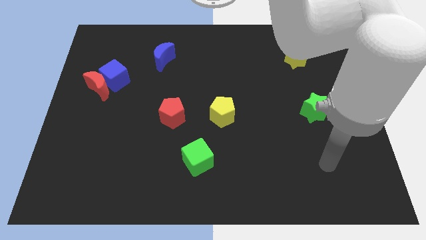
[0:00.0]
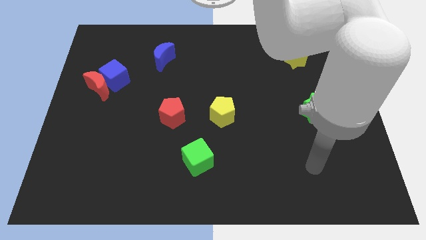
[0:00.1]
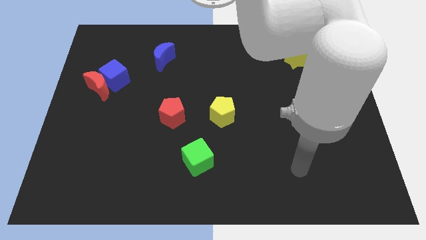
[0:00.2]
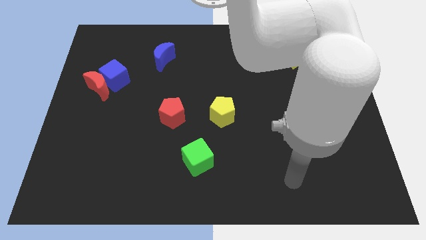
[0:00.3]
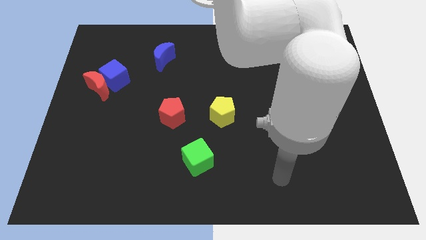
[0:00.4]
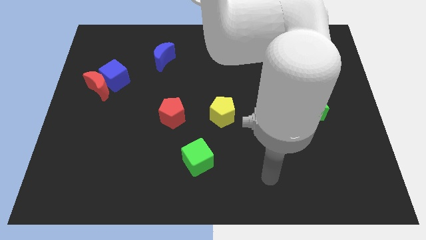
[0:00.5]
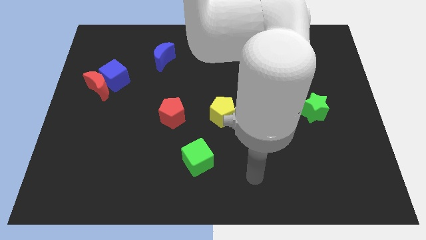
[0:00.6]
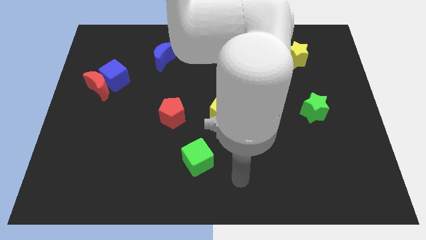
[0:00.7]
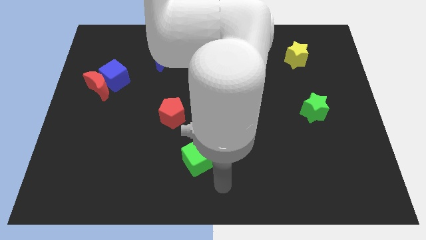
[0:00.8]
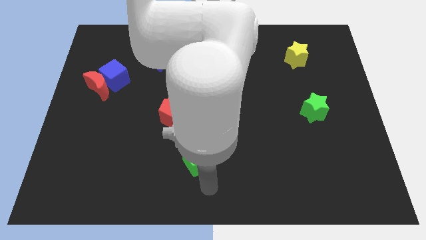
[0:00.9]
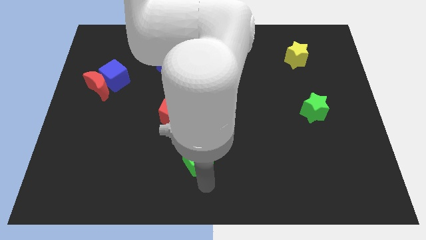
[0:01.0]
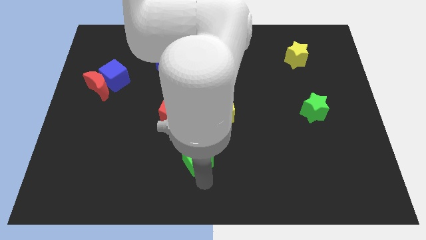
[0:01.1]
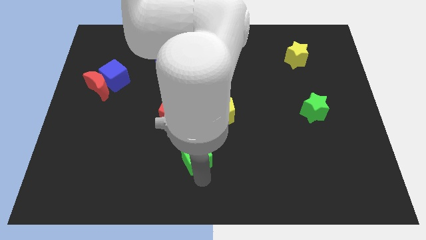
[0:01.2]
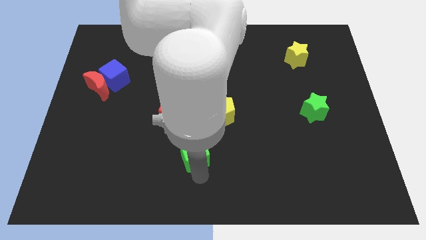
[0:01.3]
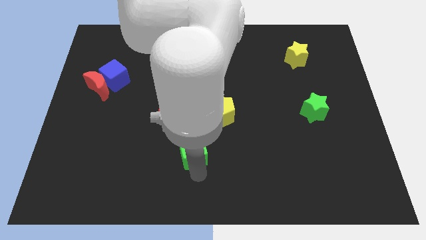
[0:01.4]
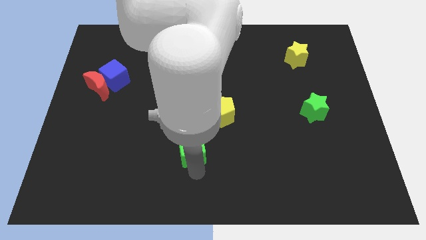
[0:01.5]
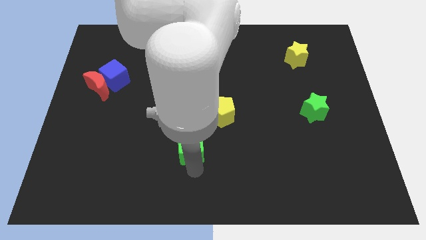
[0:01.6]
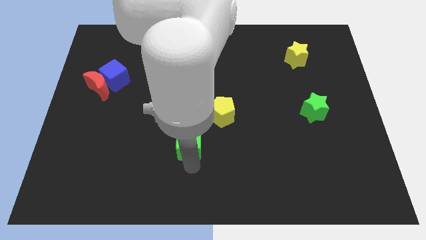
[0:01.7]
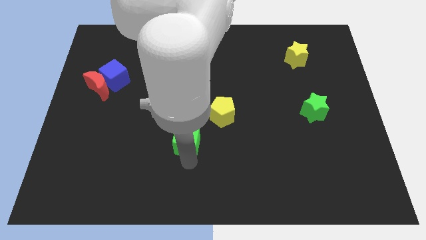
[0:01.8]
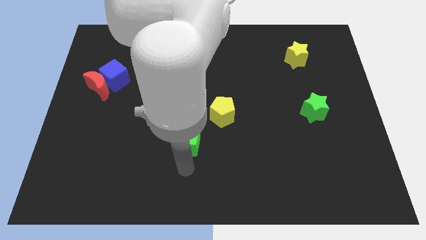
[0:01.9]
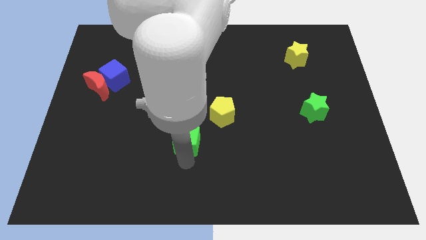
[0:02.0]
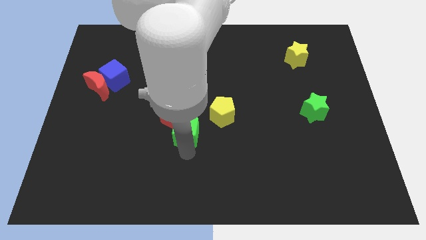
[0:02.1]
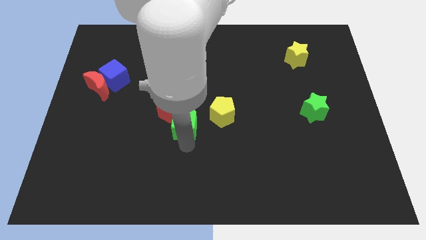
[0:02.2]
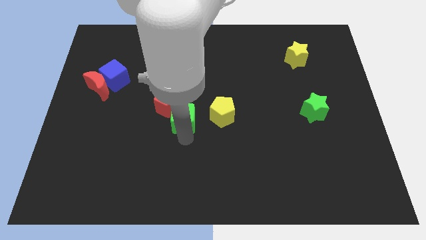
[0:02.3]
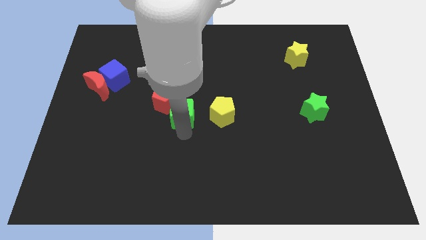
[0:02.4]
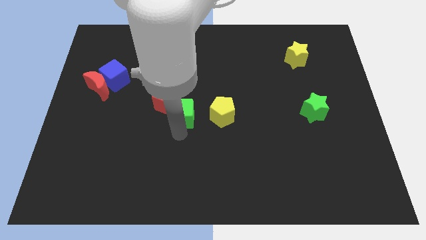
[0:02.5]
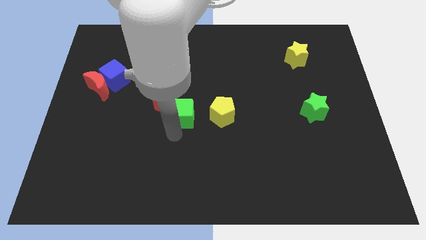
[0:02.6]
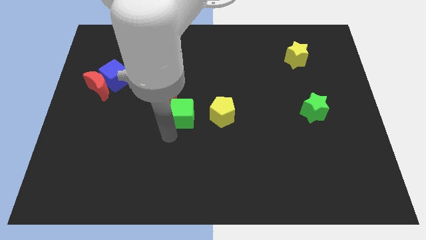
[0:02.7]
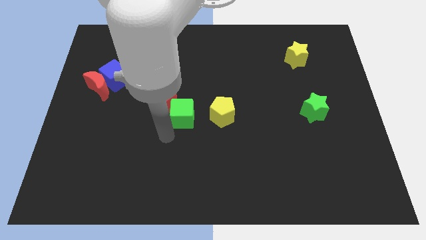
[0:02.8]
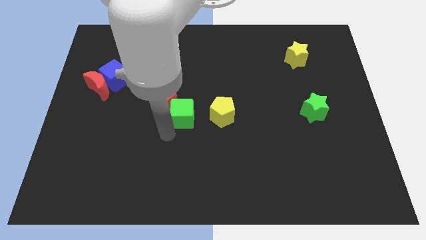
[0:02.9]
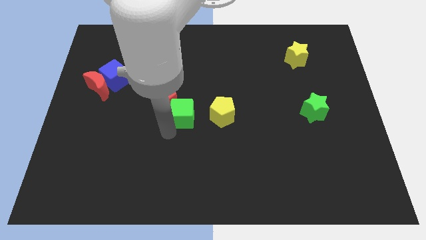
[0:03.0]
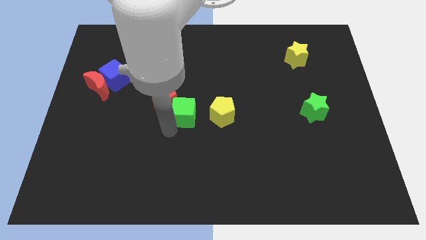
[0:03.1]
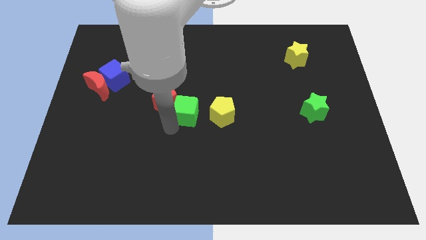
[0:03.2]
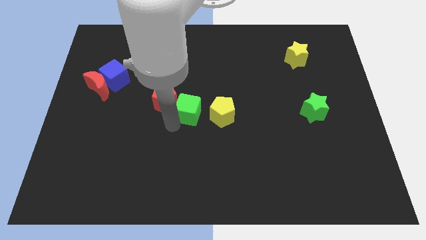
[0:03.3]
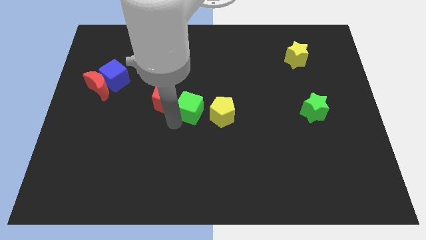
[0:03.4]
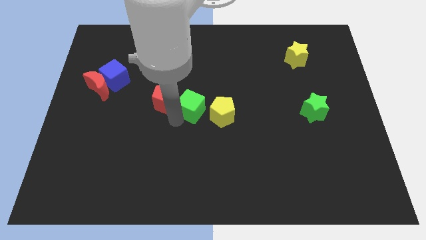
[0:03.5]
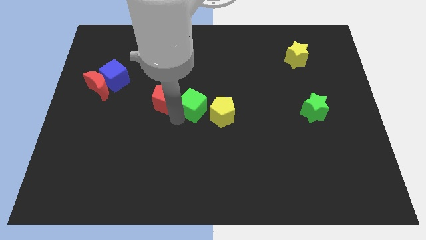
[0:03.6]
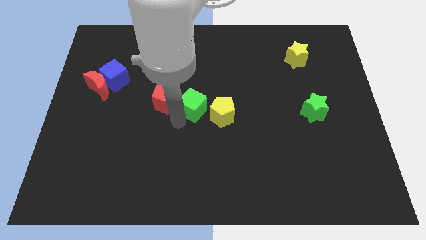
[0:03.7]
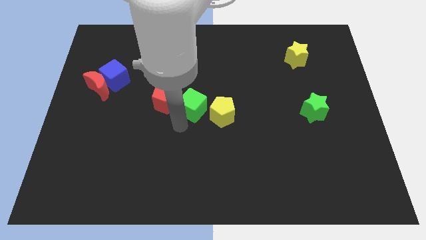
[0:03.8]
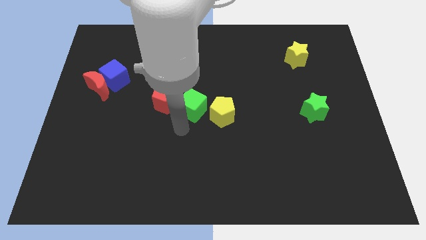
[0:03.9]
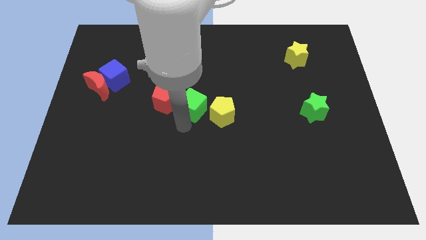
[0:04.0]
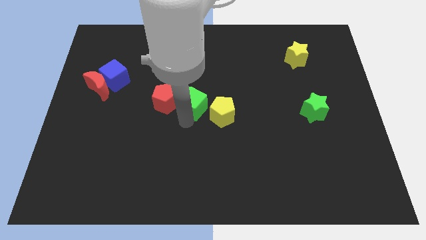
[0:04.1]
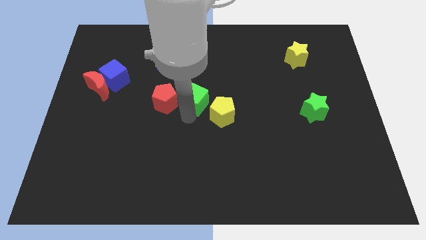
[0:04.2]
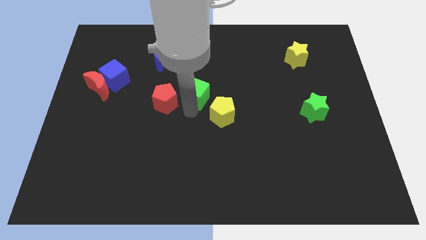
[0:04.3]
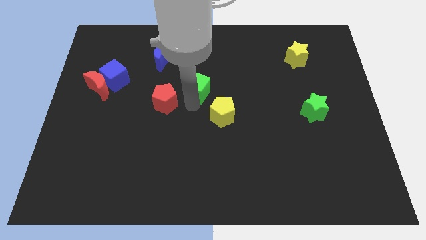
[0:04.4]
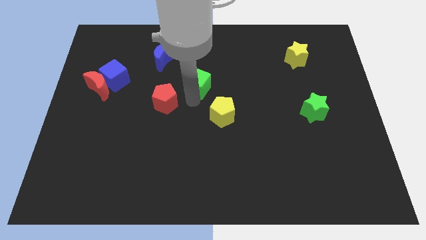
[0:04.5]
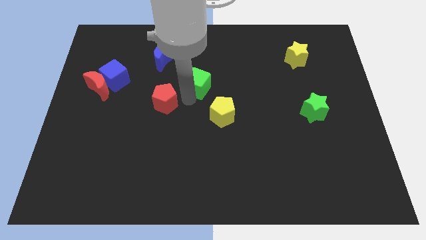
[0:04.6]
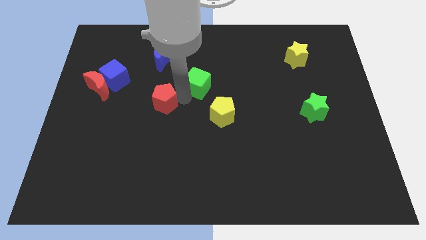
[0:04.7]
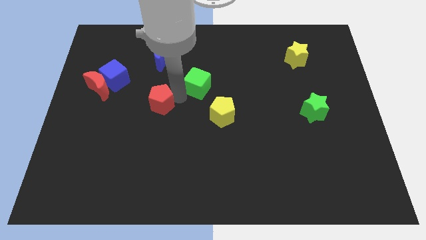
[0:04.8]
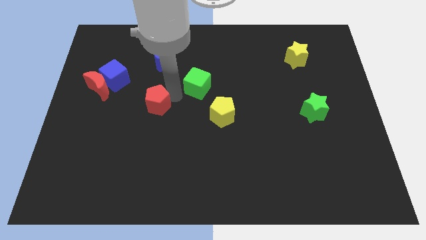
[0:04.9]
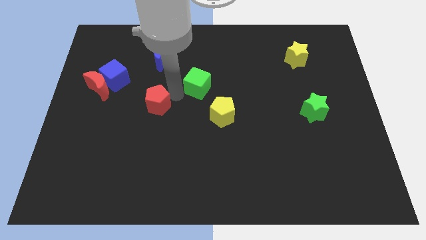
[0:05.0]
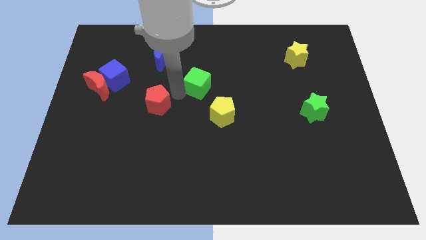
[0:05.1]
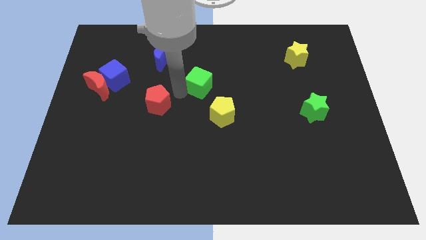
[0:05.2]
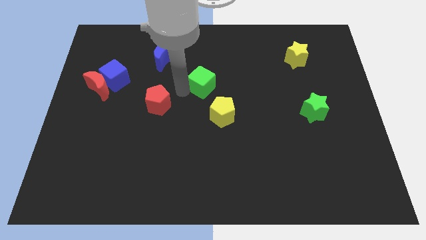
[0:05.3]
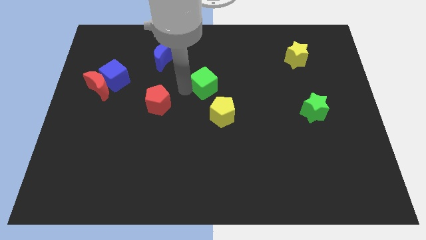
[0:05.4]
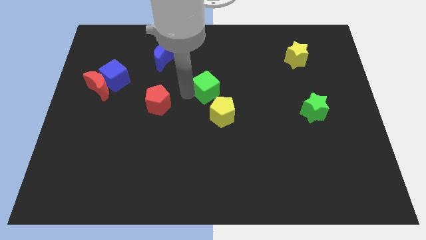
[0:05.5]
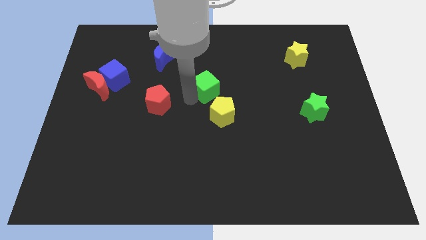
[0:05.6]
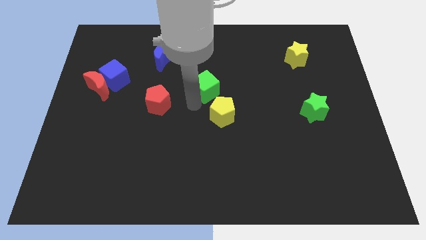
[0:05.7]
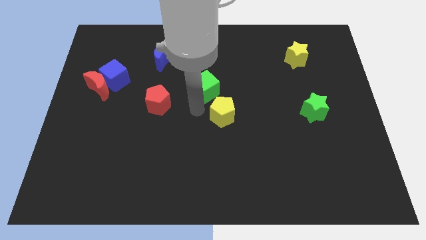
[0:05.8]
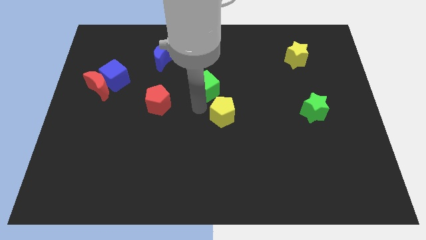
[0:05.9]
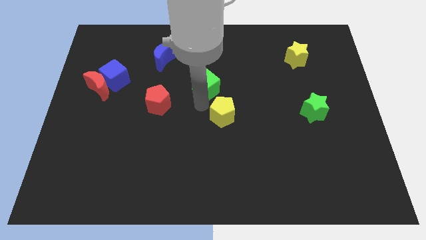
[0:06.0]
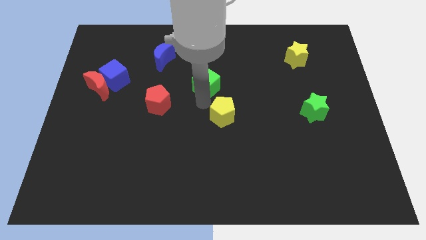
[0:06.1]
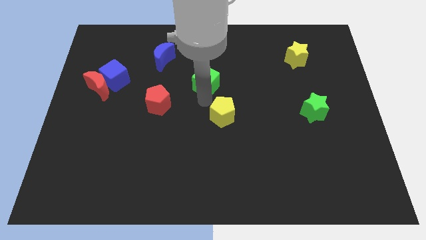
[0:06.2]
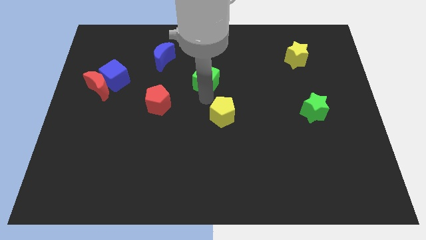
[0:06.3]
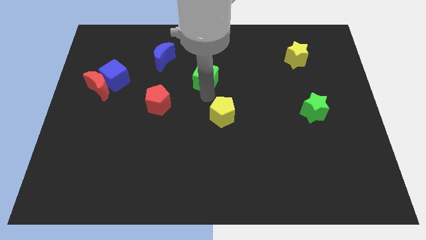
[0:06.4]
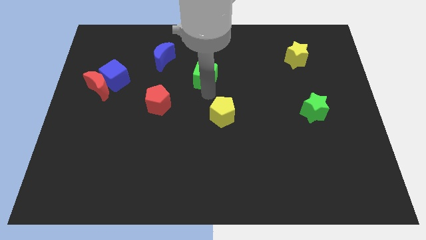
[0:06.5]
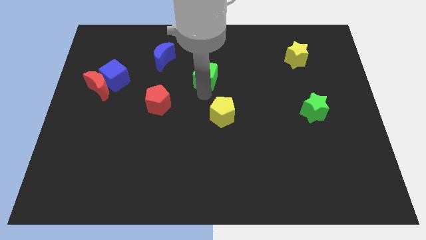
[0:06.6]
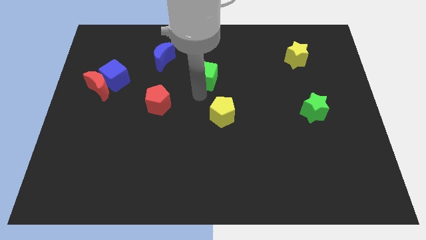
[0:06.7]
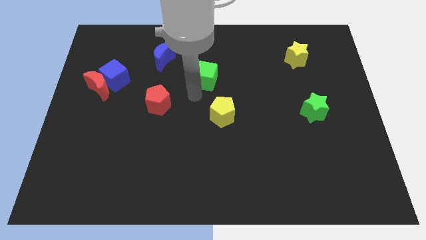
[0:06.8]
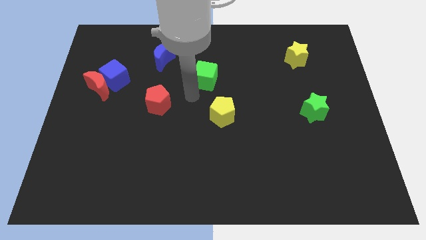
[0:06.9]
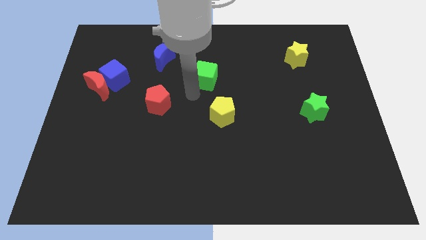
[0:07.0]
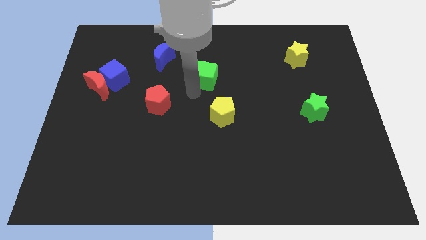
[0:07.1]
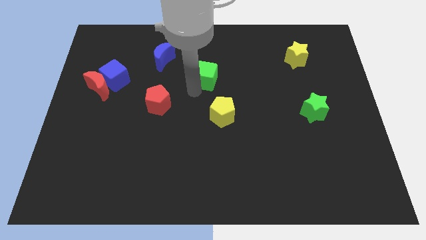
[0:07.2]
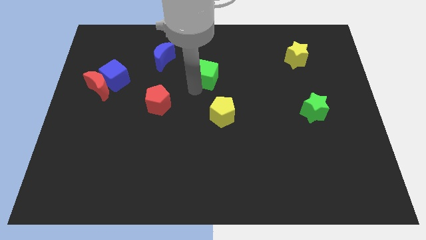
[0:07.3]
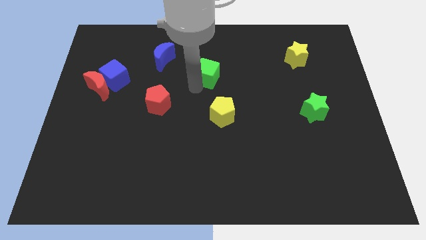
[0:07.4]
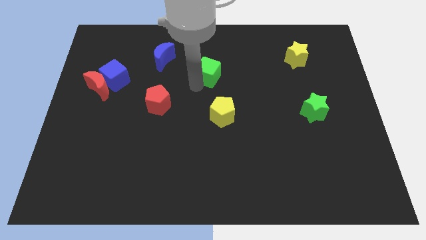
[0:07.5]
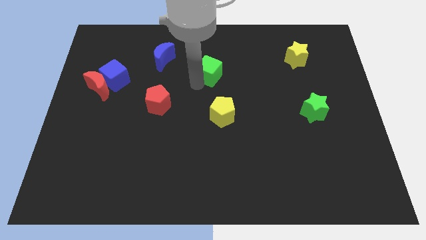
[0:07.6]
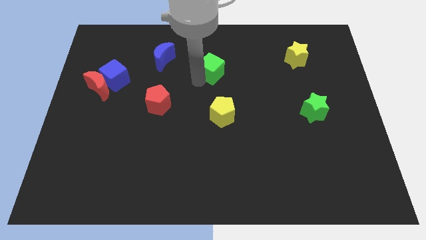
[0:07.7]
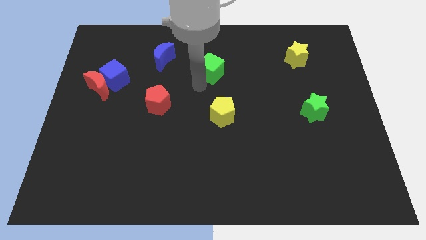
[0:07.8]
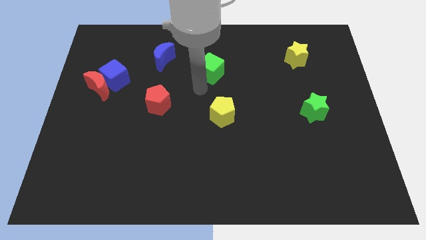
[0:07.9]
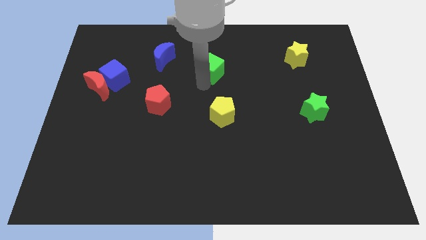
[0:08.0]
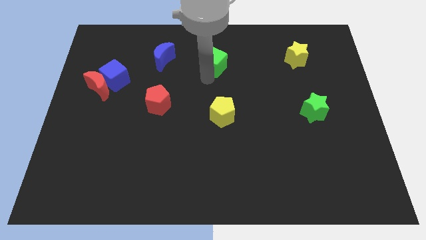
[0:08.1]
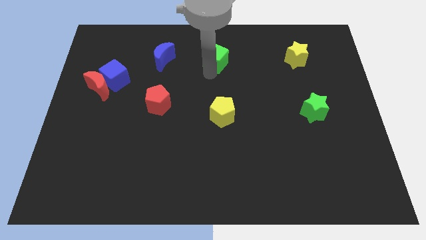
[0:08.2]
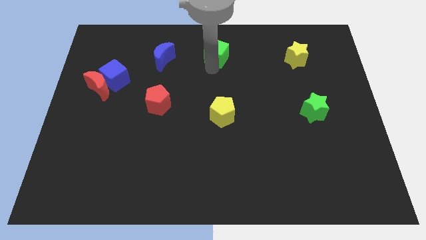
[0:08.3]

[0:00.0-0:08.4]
slide the green cube to the top
